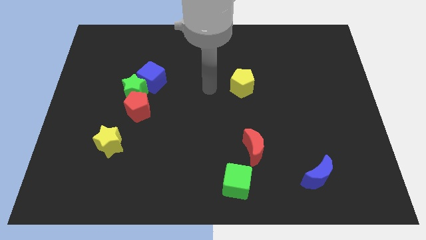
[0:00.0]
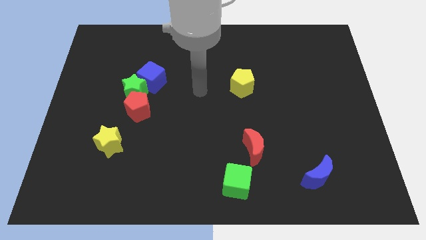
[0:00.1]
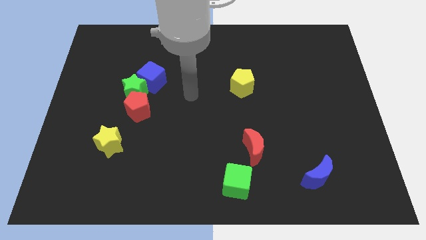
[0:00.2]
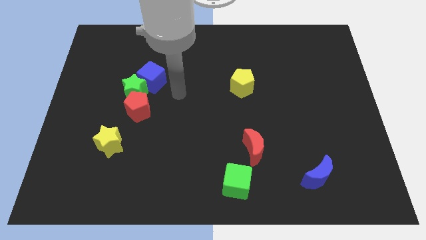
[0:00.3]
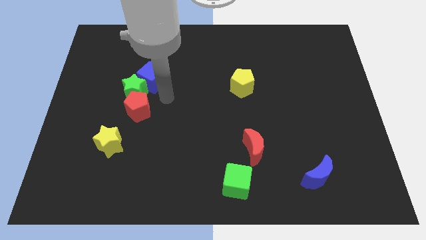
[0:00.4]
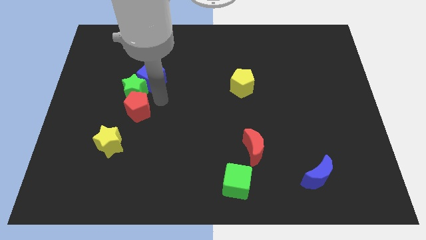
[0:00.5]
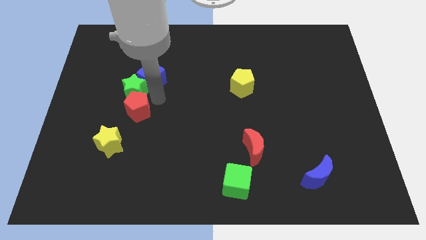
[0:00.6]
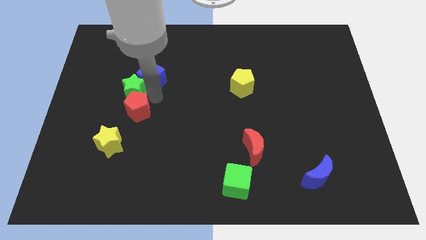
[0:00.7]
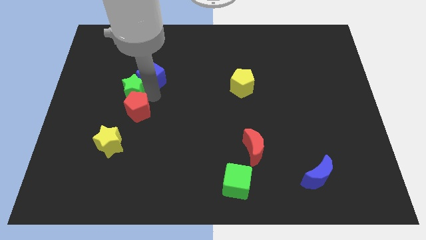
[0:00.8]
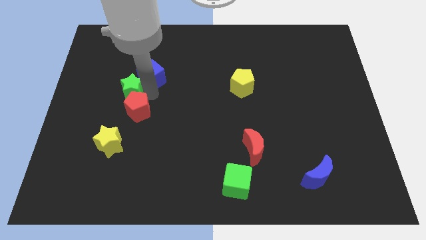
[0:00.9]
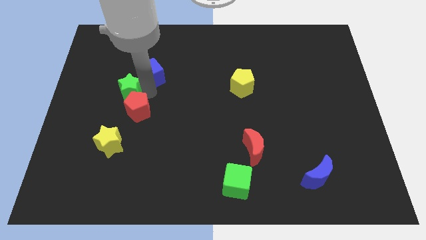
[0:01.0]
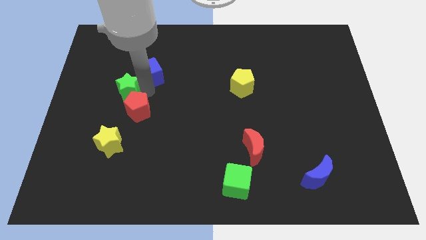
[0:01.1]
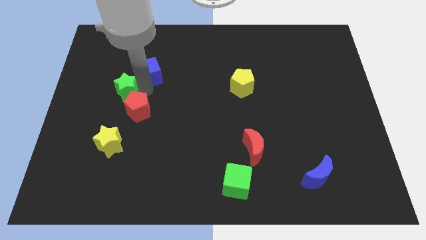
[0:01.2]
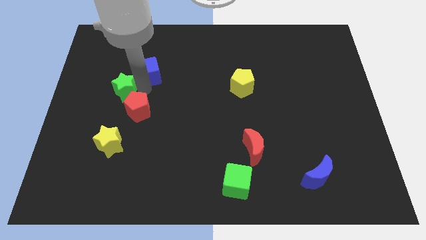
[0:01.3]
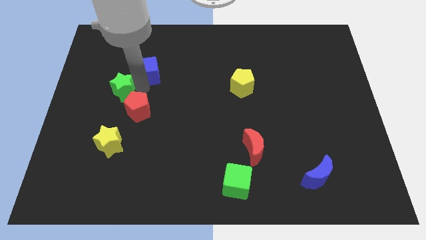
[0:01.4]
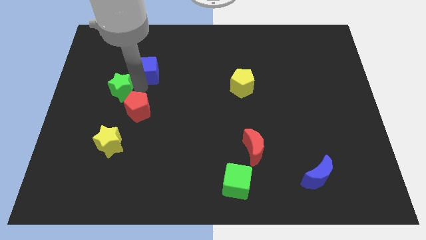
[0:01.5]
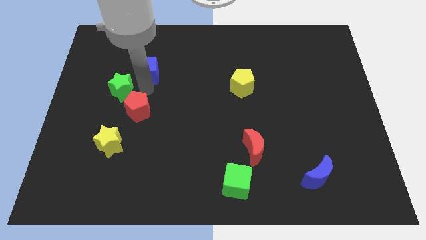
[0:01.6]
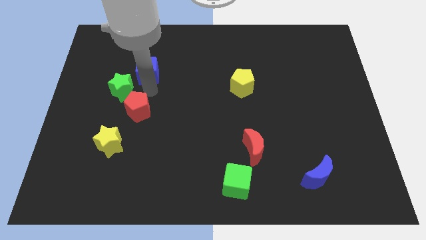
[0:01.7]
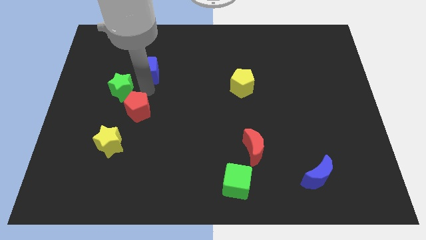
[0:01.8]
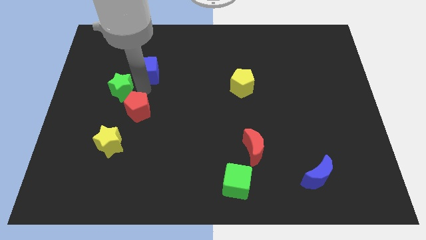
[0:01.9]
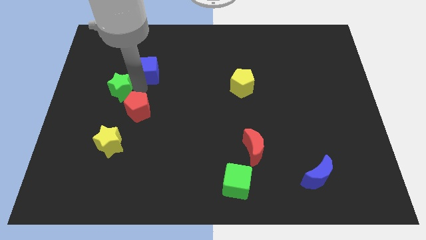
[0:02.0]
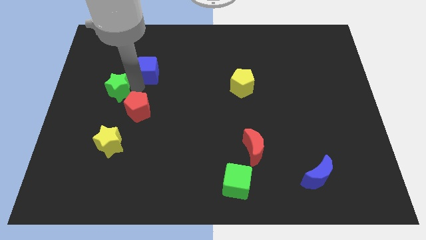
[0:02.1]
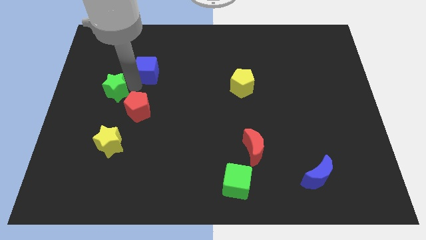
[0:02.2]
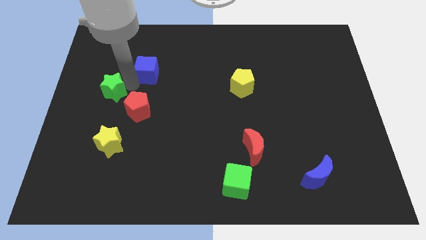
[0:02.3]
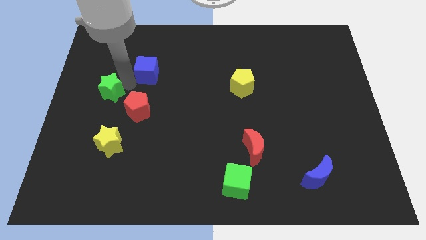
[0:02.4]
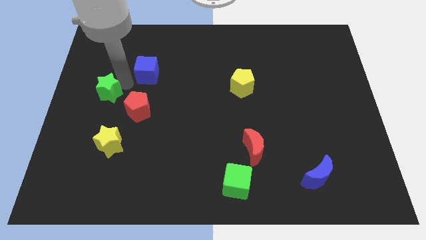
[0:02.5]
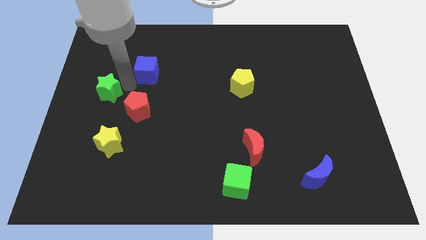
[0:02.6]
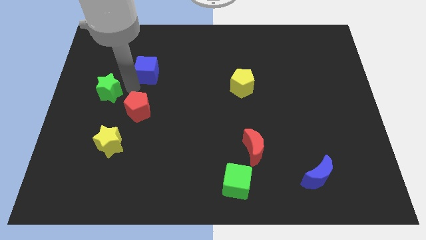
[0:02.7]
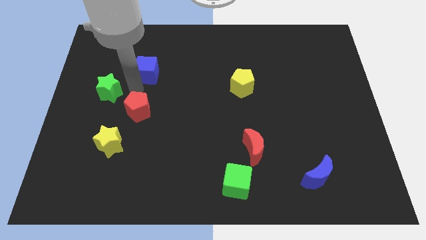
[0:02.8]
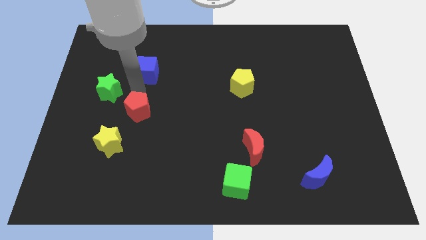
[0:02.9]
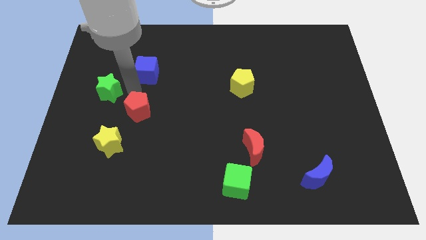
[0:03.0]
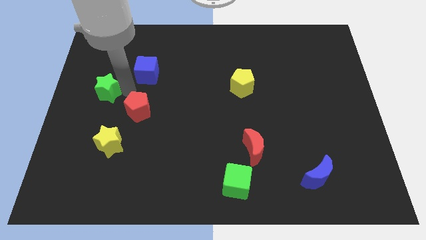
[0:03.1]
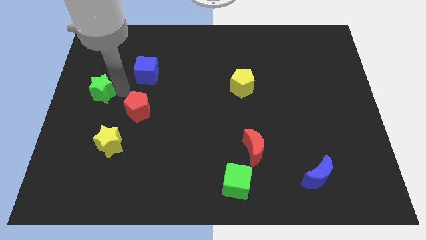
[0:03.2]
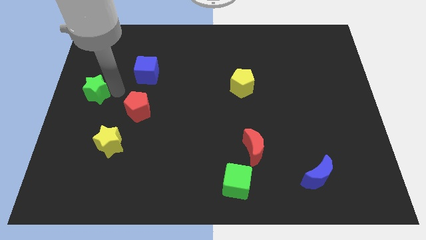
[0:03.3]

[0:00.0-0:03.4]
move the green star away from the red pentagon and blue cube

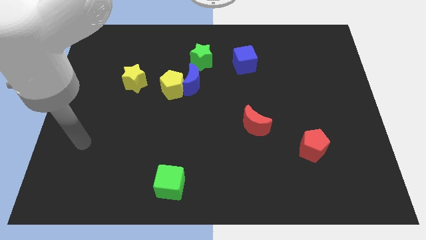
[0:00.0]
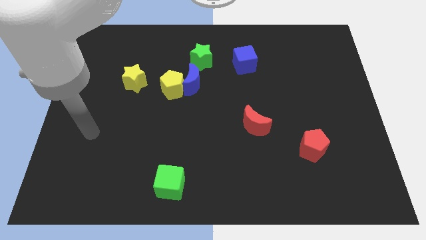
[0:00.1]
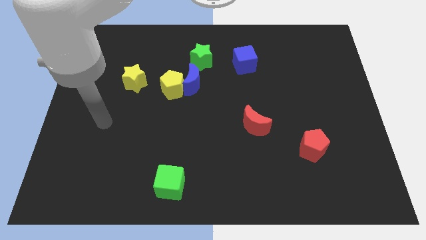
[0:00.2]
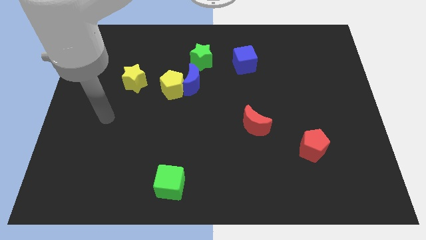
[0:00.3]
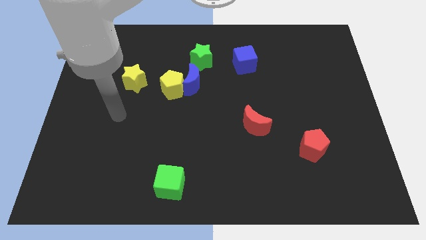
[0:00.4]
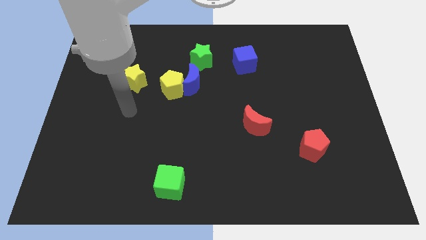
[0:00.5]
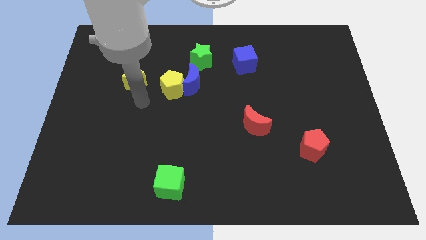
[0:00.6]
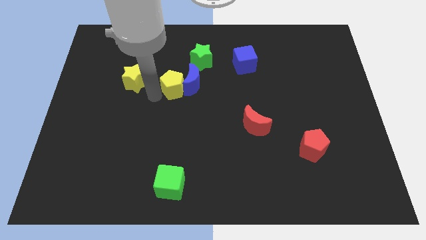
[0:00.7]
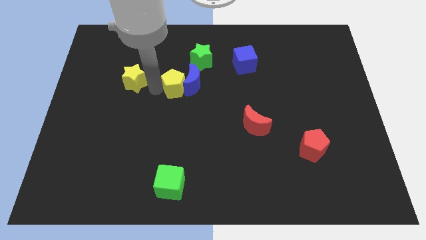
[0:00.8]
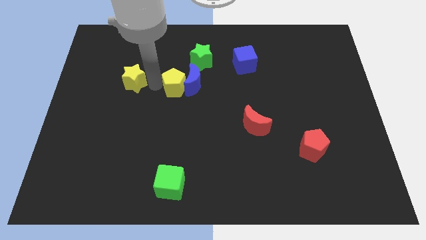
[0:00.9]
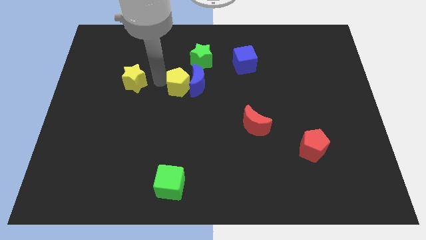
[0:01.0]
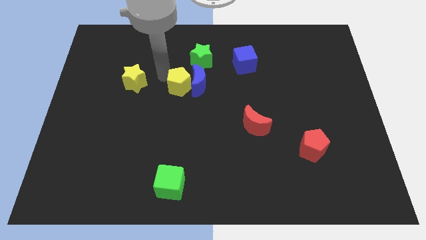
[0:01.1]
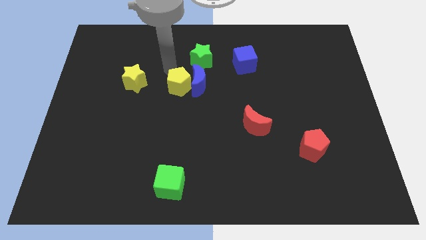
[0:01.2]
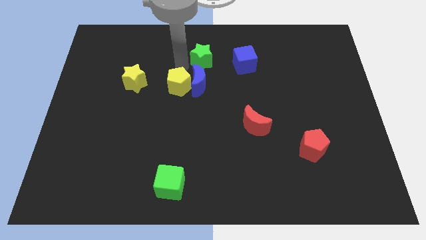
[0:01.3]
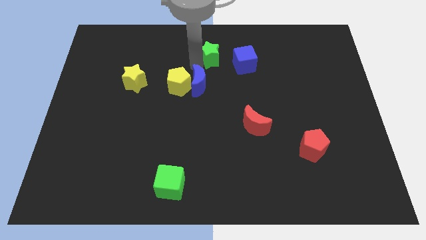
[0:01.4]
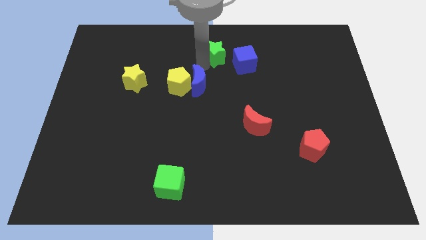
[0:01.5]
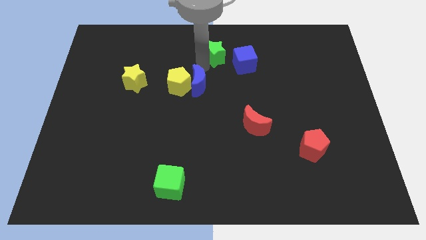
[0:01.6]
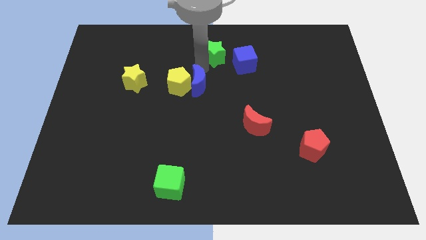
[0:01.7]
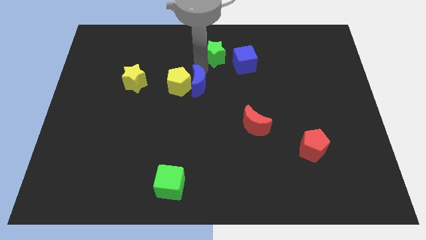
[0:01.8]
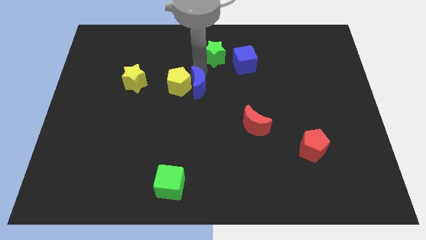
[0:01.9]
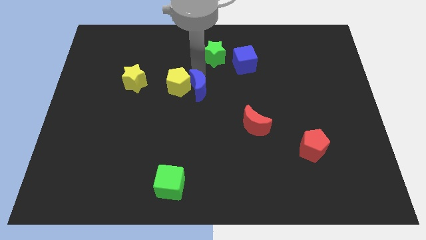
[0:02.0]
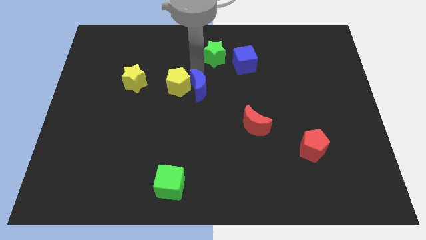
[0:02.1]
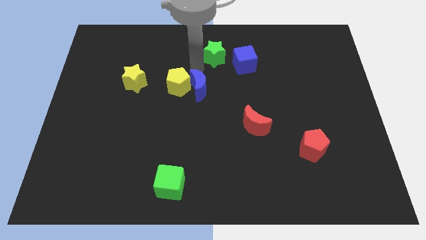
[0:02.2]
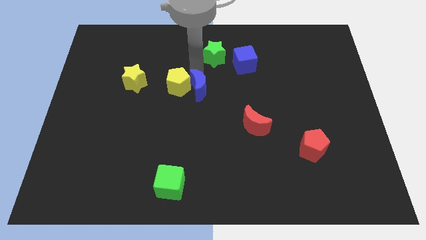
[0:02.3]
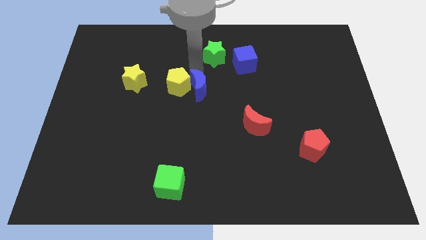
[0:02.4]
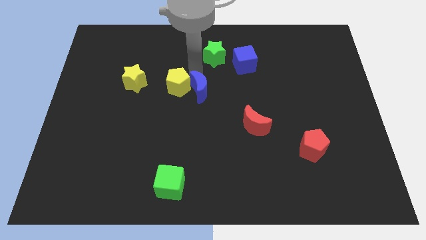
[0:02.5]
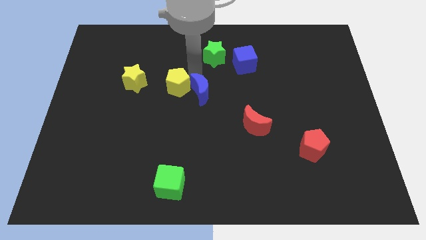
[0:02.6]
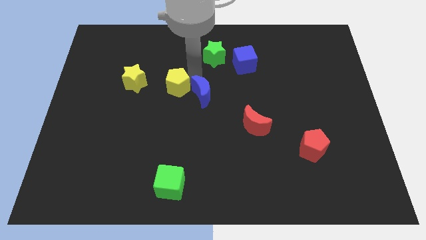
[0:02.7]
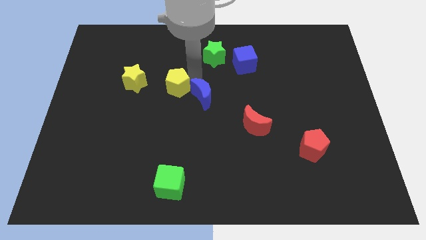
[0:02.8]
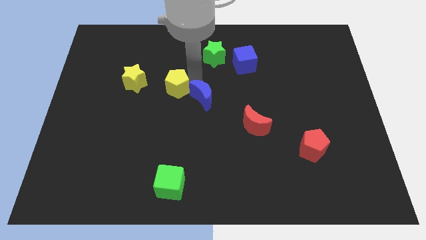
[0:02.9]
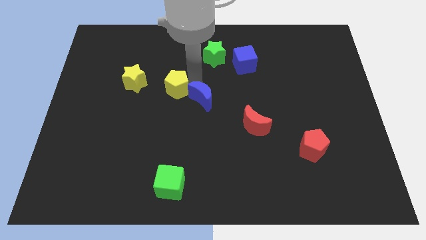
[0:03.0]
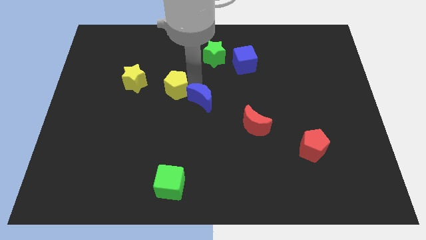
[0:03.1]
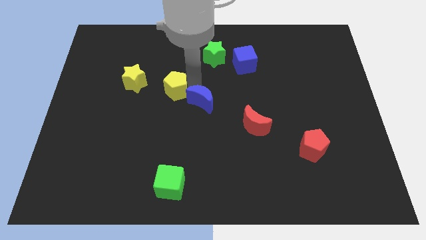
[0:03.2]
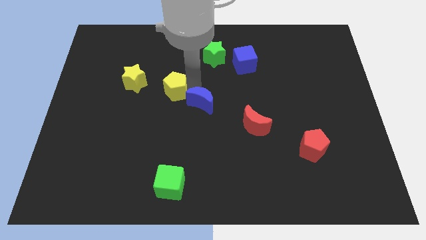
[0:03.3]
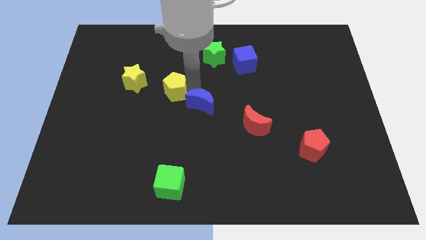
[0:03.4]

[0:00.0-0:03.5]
separate the blue moon from the yellow pentagon and green star

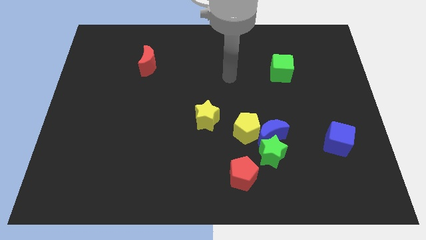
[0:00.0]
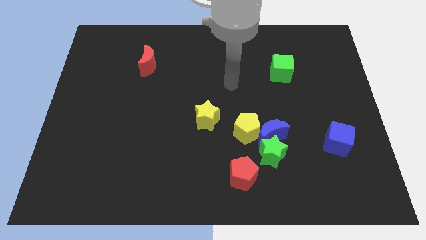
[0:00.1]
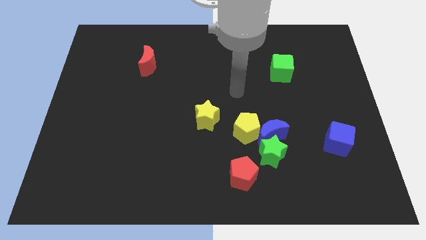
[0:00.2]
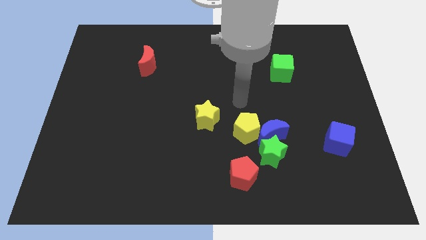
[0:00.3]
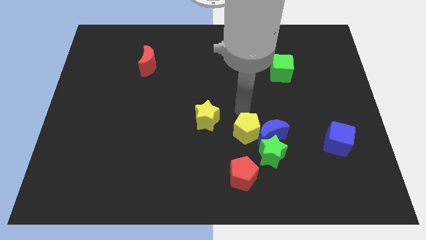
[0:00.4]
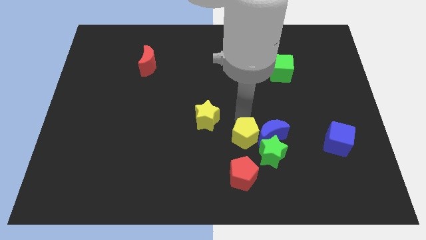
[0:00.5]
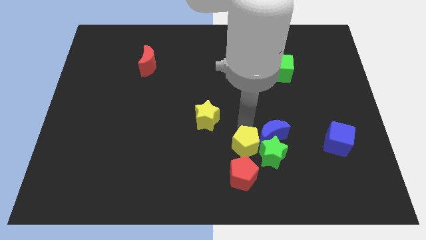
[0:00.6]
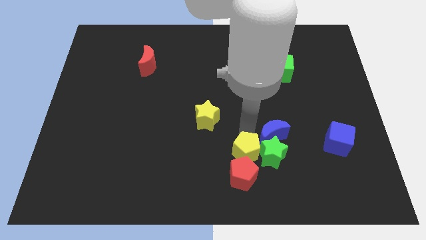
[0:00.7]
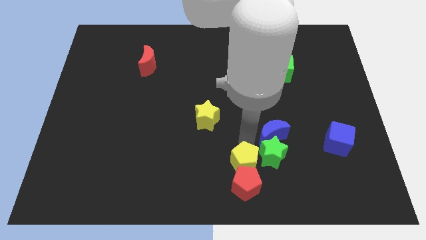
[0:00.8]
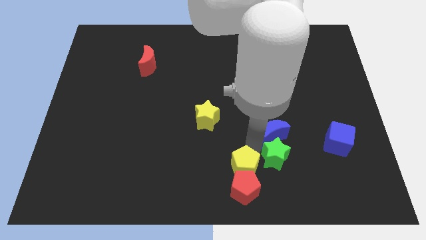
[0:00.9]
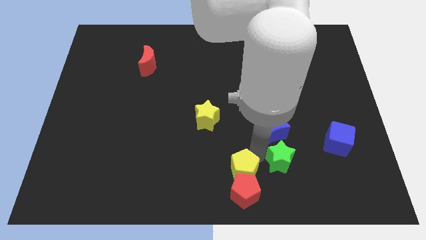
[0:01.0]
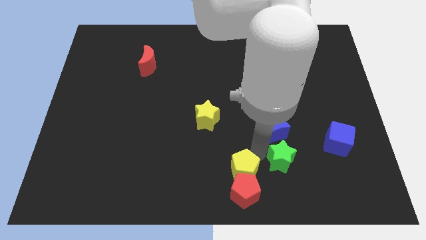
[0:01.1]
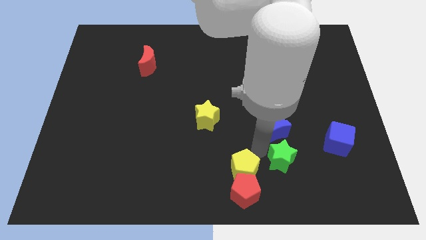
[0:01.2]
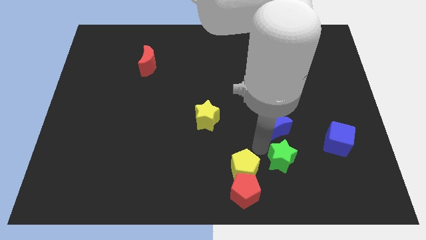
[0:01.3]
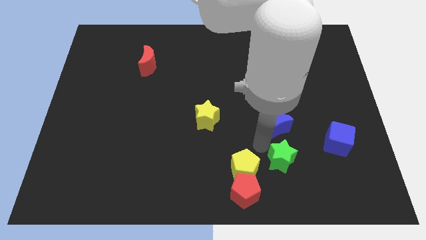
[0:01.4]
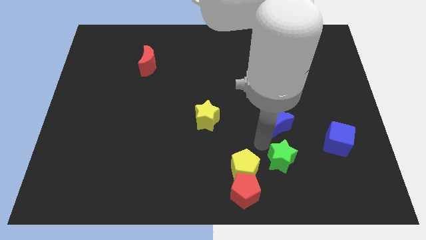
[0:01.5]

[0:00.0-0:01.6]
pull the blue moon apart from the green star and yellow pentagon

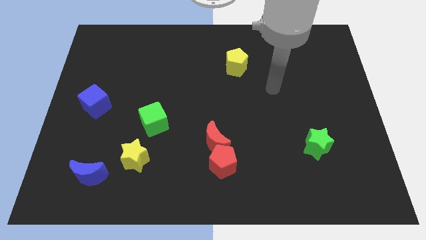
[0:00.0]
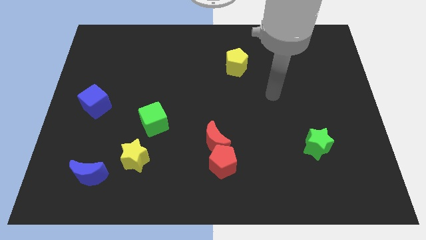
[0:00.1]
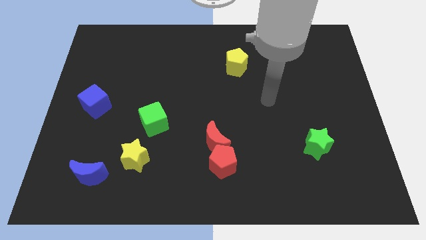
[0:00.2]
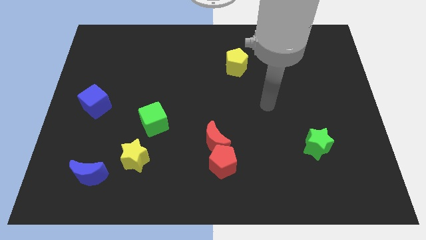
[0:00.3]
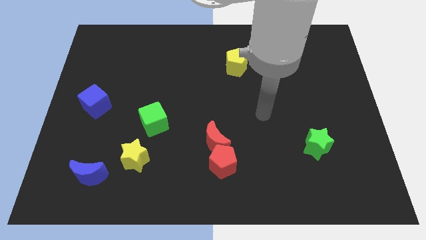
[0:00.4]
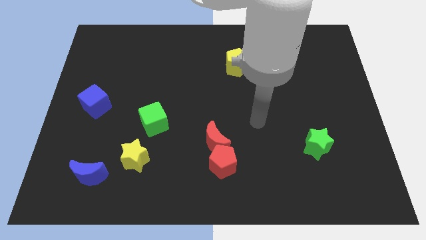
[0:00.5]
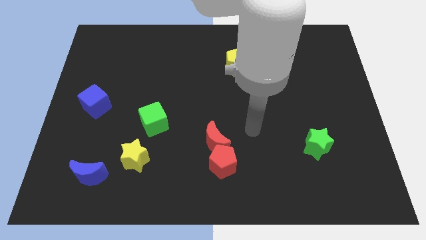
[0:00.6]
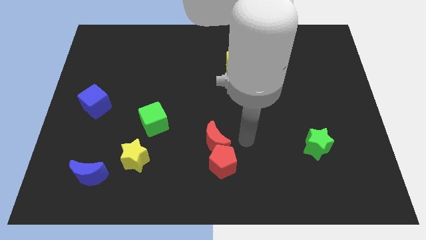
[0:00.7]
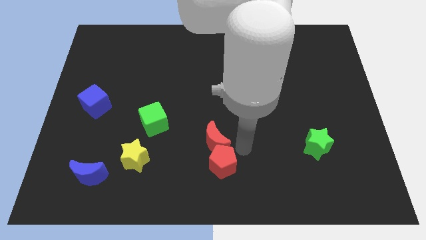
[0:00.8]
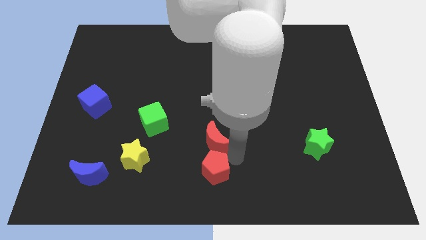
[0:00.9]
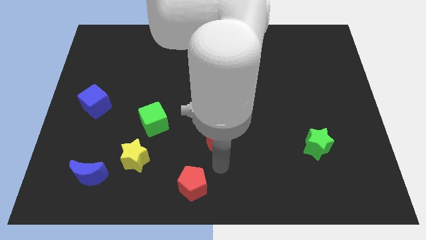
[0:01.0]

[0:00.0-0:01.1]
pull the red moon apart from the red pentagon

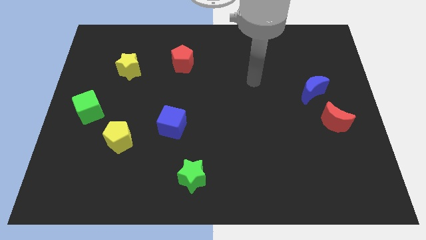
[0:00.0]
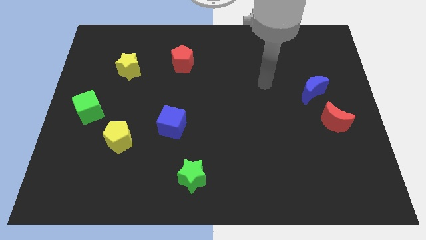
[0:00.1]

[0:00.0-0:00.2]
pull the red moon apart from the blue moon
